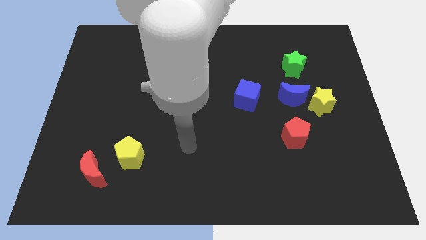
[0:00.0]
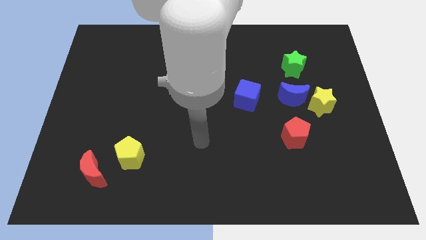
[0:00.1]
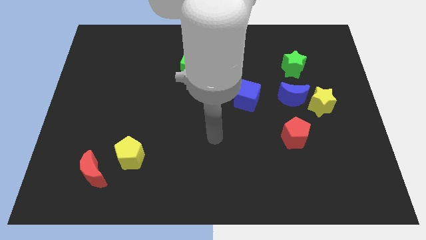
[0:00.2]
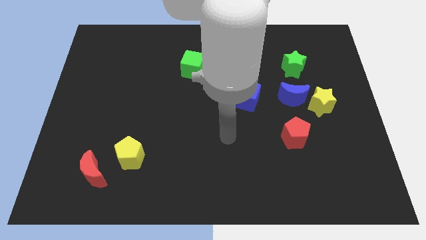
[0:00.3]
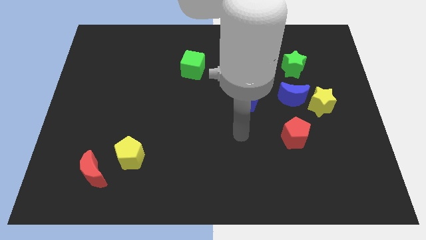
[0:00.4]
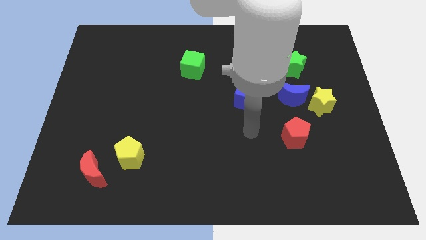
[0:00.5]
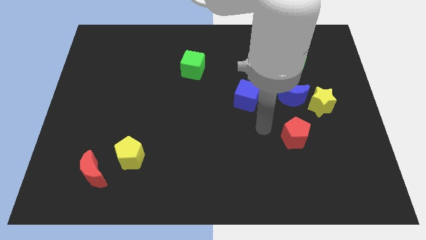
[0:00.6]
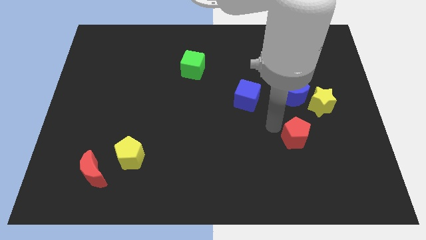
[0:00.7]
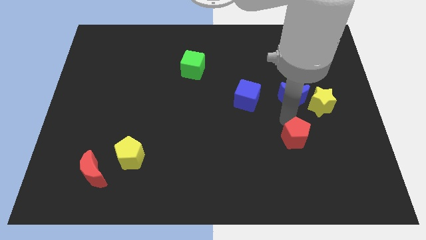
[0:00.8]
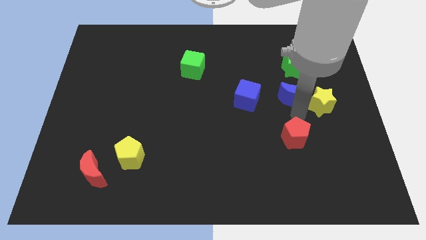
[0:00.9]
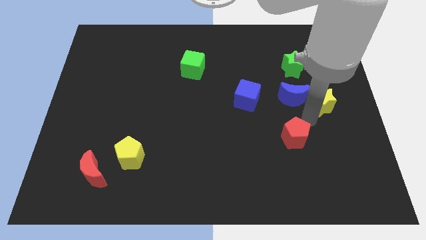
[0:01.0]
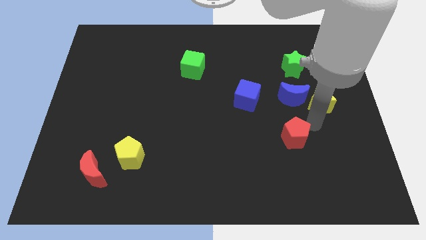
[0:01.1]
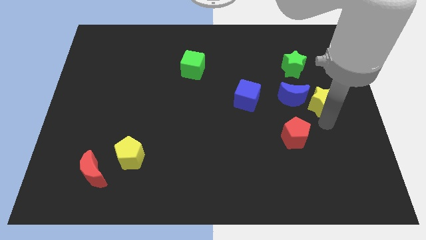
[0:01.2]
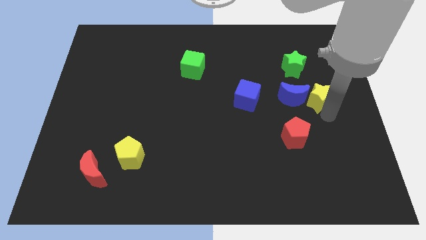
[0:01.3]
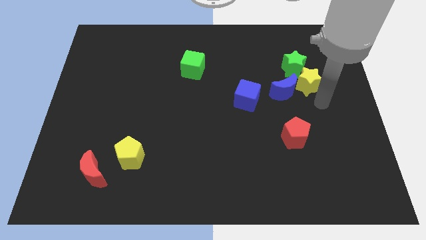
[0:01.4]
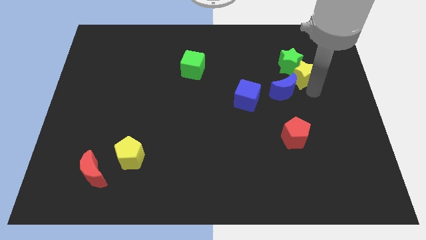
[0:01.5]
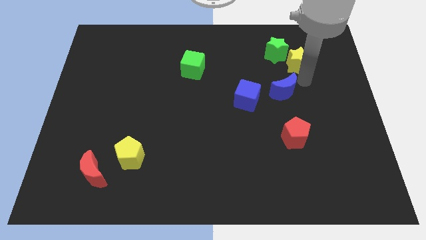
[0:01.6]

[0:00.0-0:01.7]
move the blue moon away from the yellow star

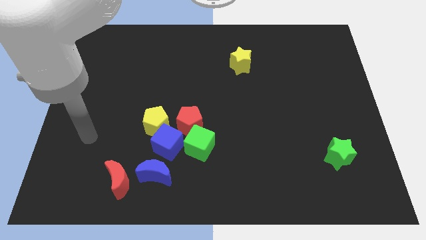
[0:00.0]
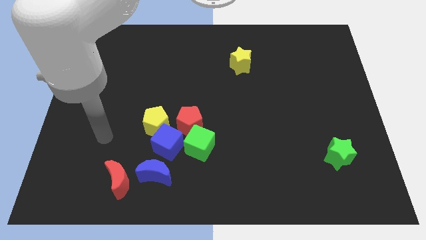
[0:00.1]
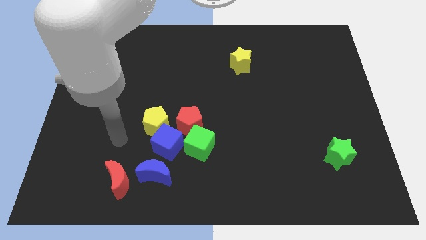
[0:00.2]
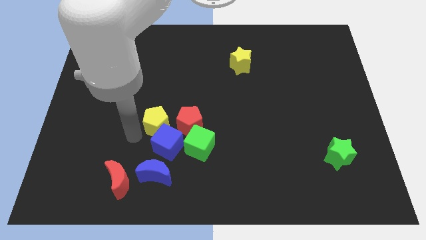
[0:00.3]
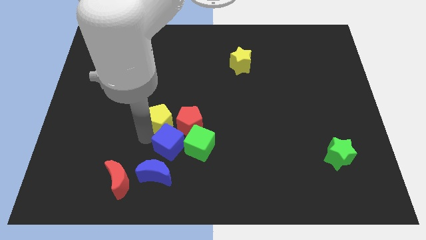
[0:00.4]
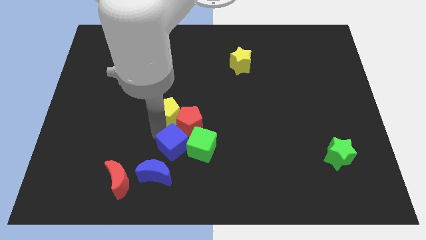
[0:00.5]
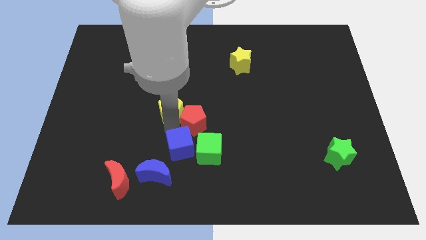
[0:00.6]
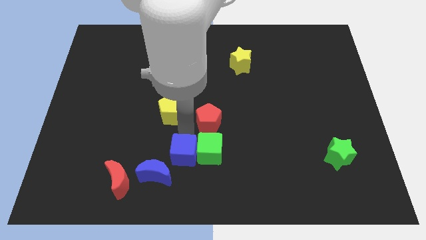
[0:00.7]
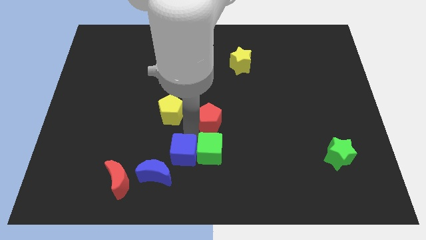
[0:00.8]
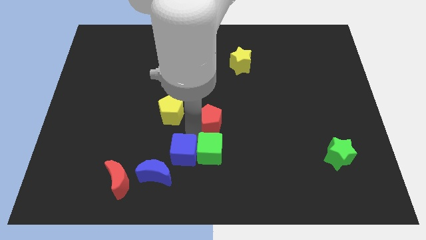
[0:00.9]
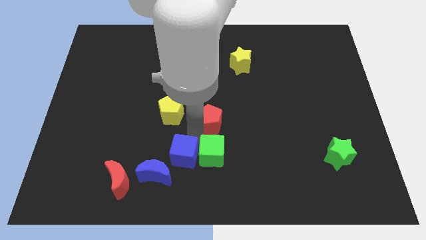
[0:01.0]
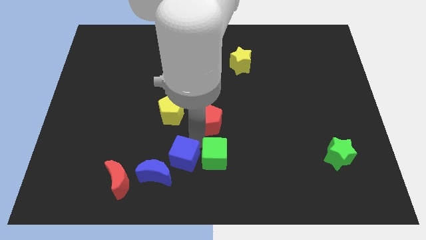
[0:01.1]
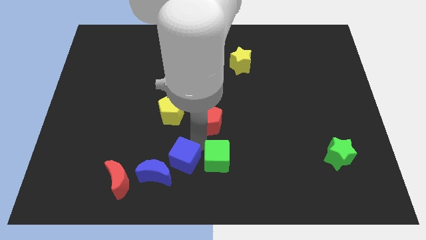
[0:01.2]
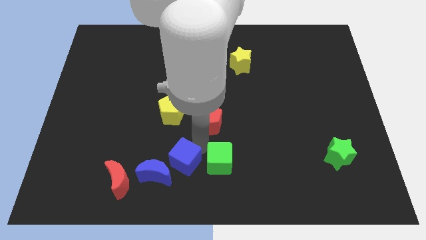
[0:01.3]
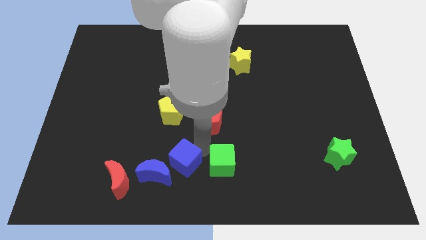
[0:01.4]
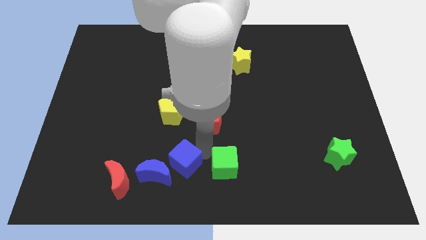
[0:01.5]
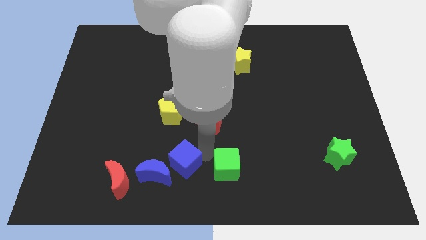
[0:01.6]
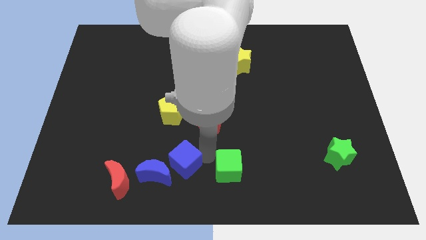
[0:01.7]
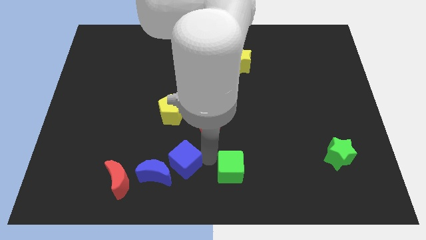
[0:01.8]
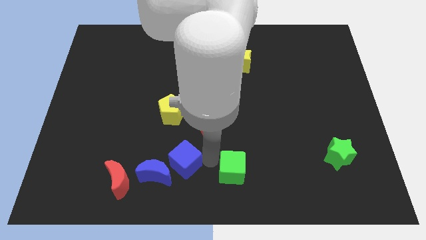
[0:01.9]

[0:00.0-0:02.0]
separate the green cube from the red pentagon and blue cube

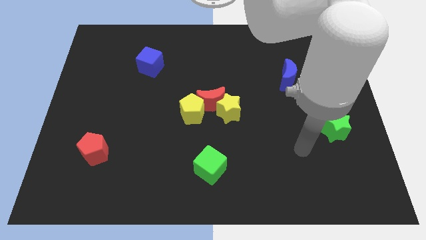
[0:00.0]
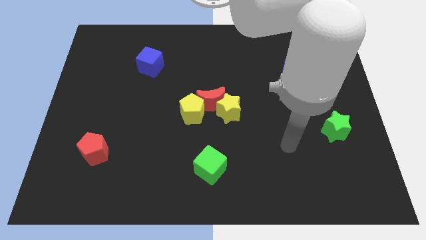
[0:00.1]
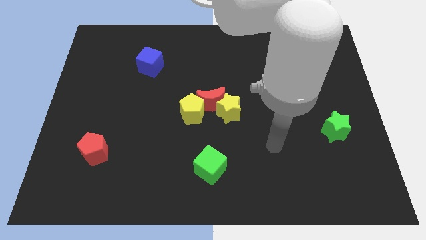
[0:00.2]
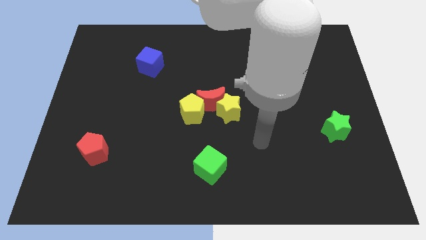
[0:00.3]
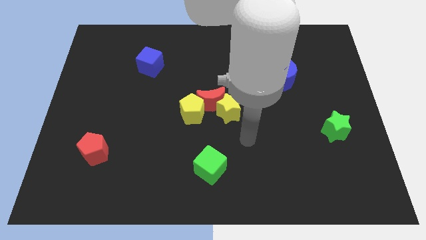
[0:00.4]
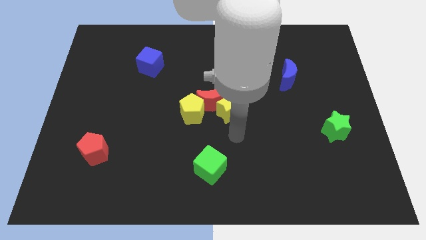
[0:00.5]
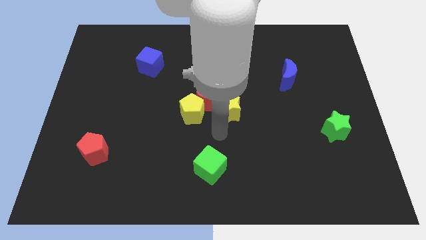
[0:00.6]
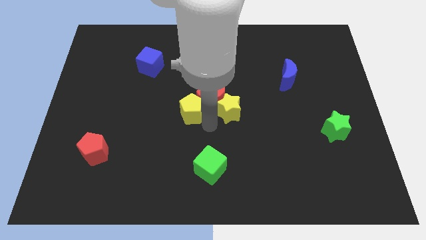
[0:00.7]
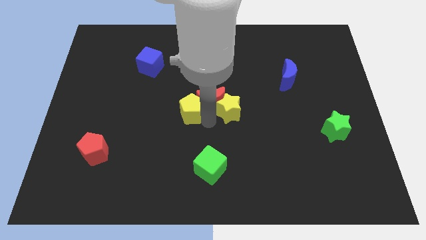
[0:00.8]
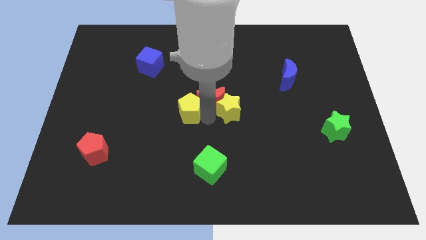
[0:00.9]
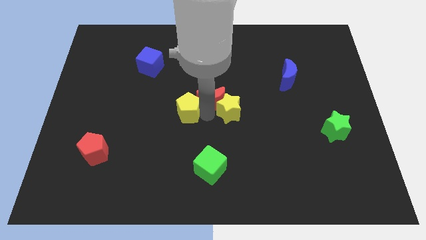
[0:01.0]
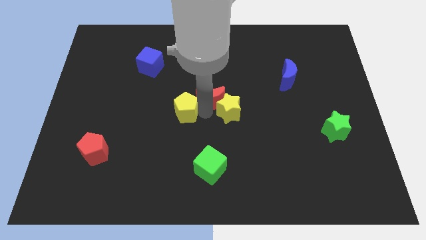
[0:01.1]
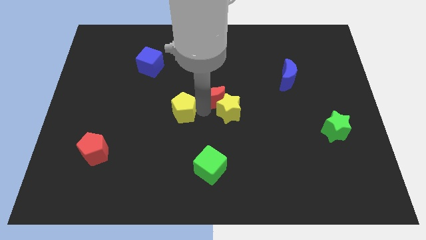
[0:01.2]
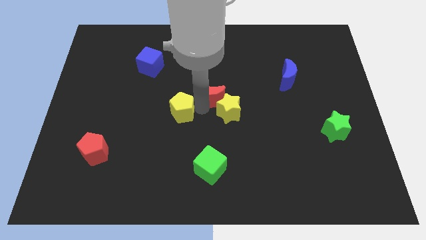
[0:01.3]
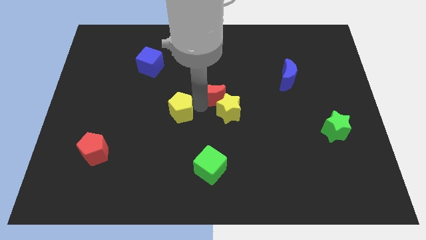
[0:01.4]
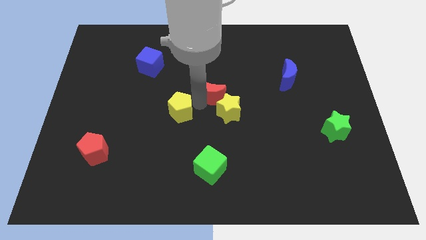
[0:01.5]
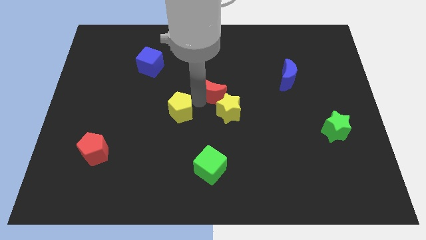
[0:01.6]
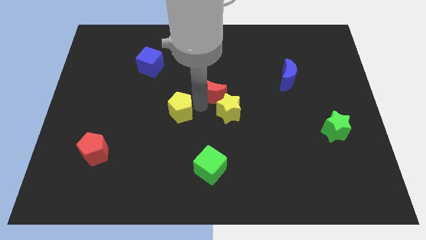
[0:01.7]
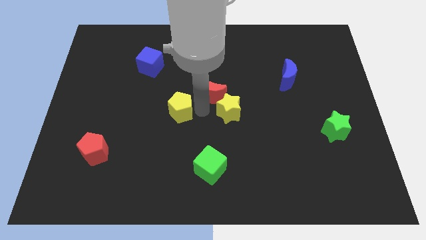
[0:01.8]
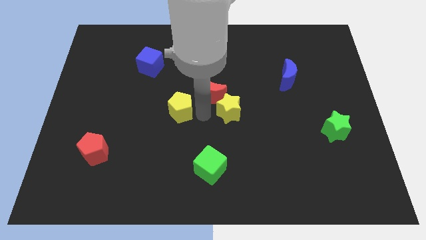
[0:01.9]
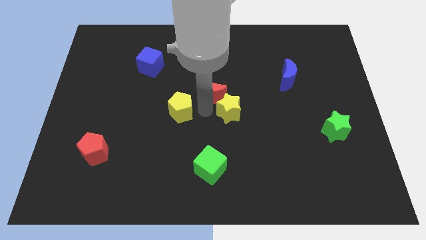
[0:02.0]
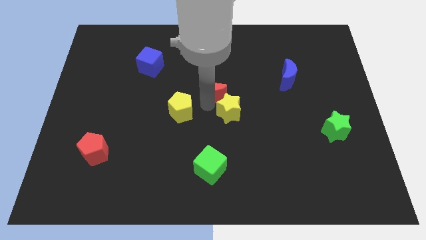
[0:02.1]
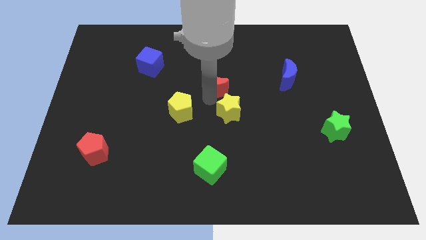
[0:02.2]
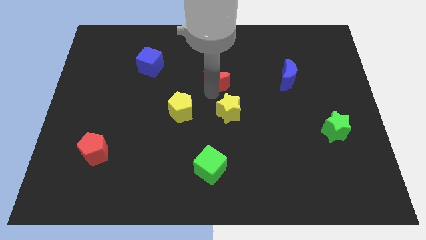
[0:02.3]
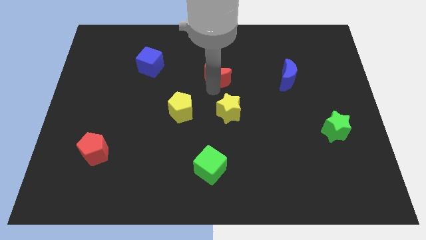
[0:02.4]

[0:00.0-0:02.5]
separate the red moon from the yellow star and yellow pentagon

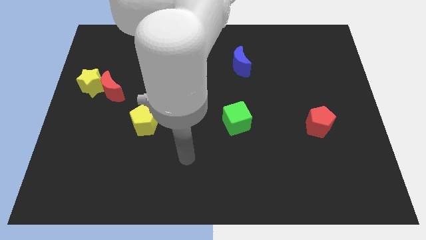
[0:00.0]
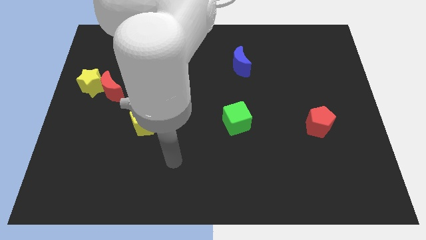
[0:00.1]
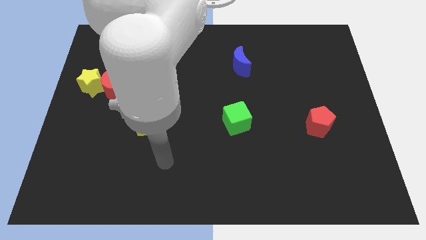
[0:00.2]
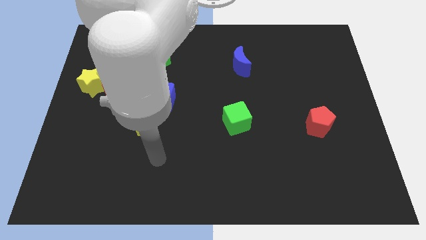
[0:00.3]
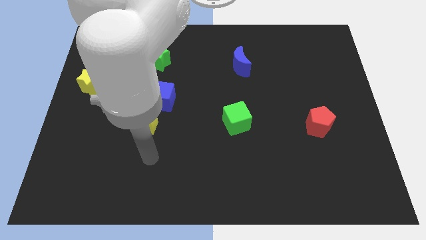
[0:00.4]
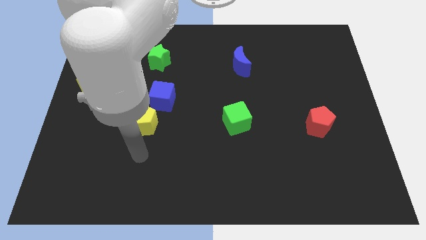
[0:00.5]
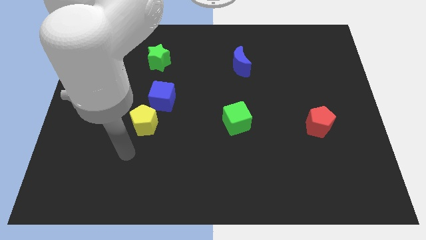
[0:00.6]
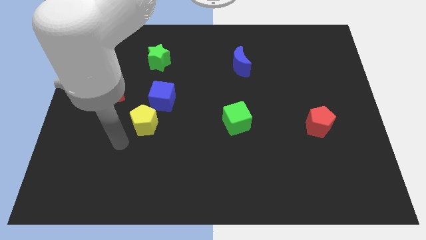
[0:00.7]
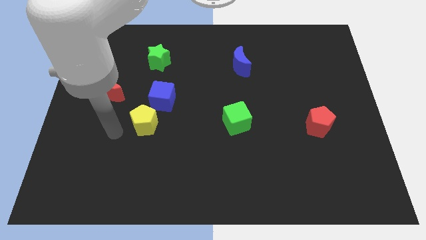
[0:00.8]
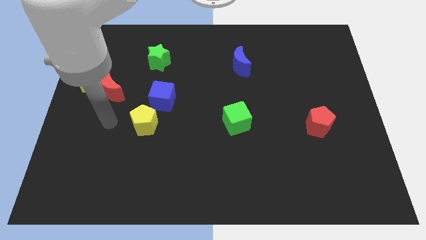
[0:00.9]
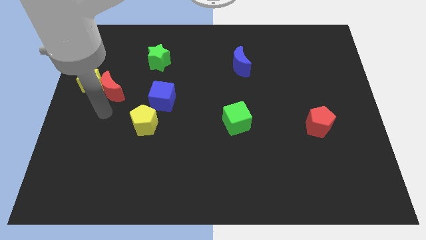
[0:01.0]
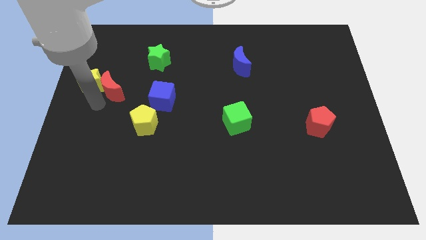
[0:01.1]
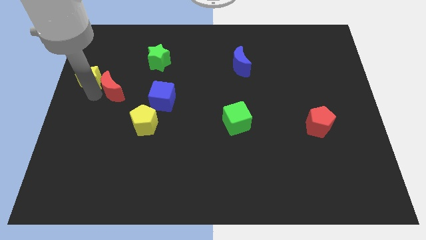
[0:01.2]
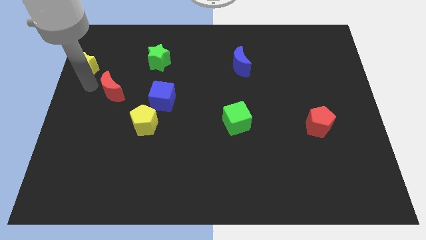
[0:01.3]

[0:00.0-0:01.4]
move the red moon away from the yellow star

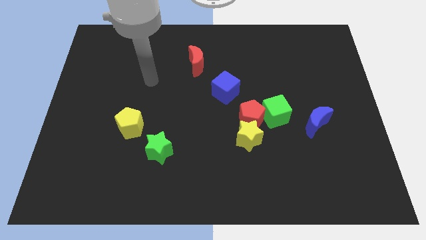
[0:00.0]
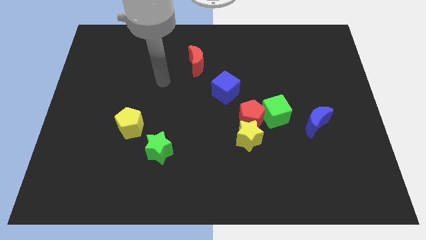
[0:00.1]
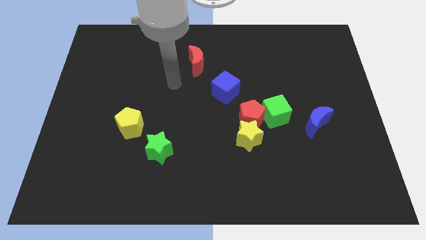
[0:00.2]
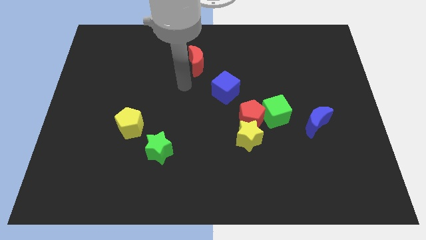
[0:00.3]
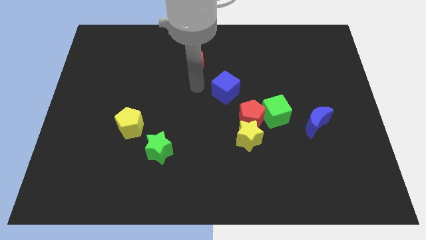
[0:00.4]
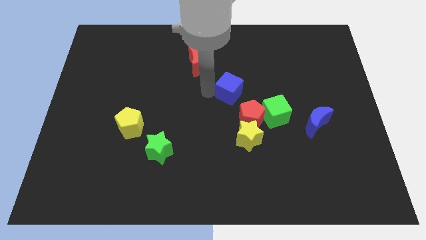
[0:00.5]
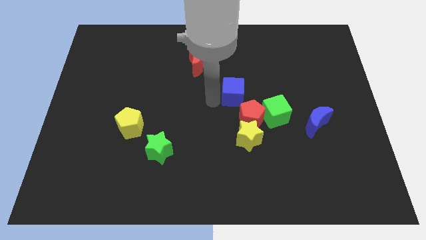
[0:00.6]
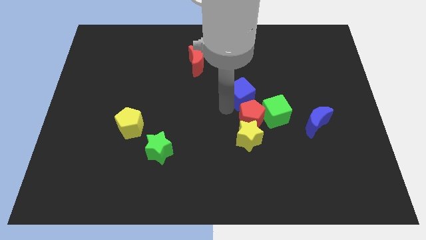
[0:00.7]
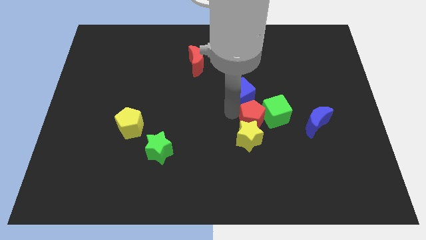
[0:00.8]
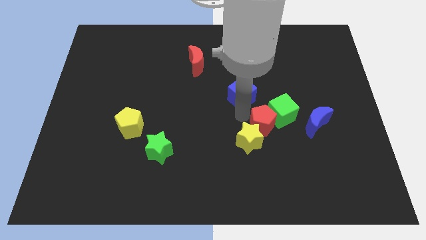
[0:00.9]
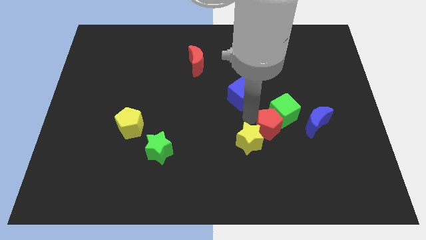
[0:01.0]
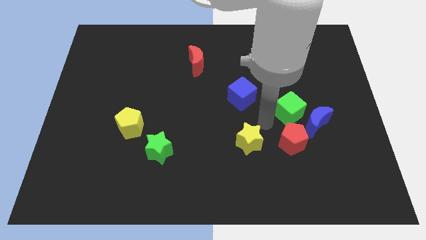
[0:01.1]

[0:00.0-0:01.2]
separate the yellow star from the red pentagon and green cube

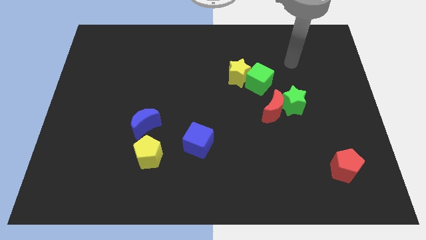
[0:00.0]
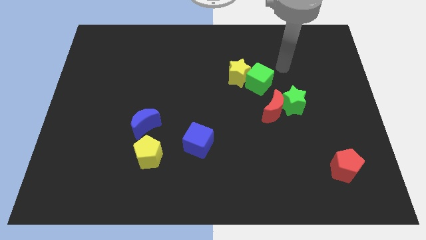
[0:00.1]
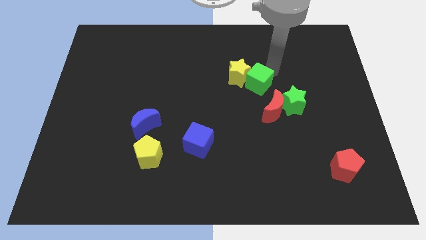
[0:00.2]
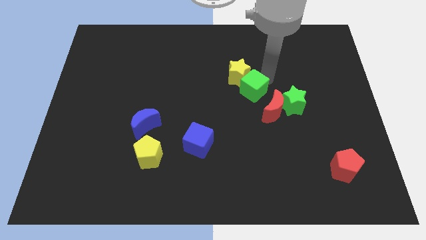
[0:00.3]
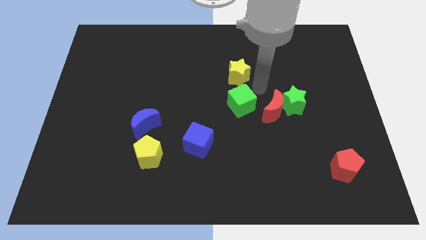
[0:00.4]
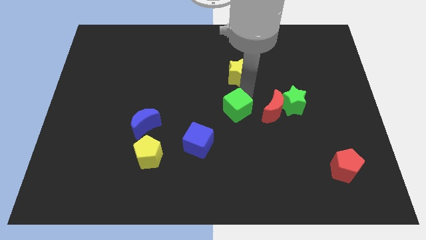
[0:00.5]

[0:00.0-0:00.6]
pull the yellow star apart from the green cube

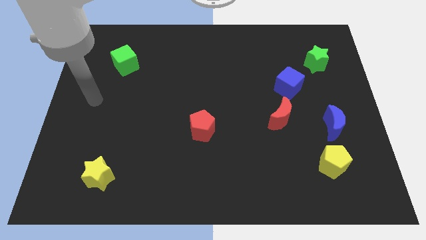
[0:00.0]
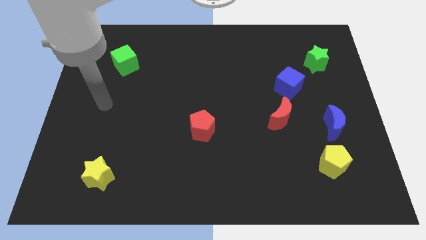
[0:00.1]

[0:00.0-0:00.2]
move the blue moon away from the yellow pentagon
